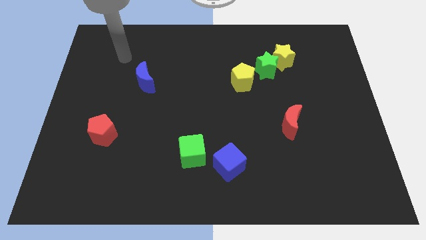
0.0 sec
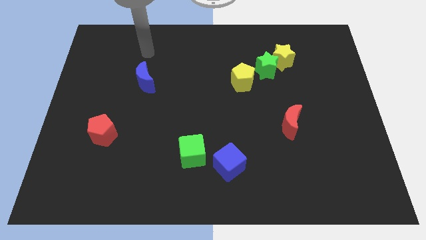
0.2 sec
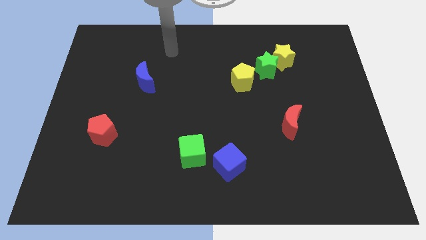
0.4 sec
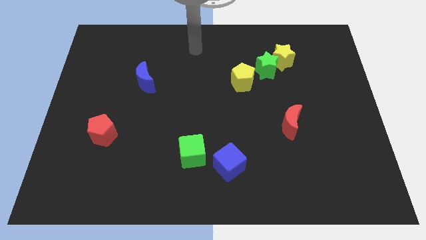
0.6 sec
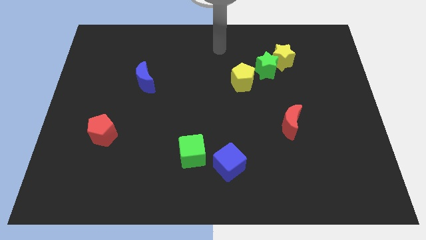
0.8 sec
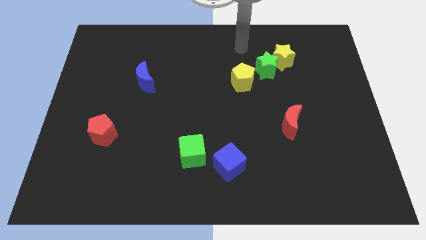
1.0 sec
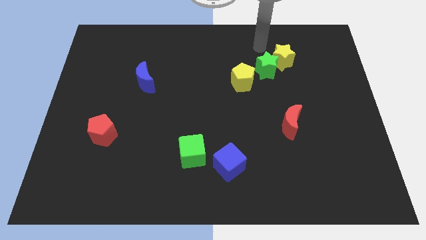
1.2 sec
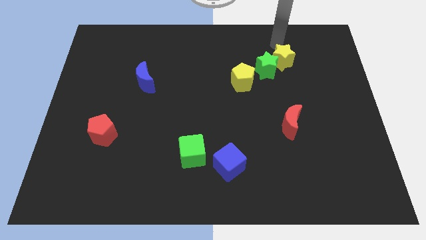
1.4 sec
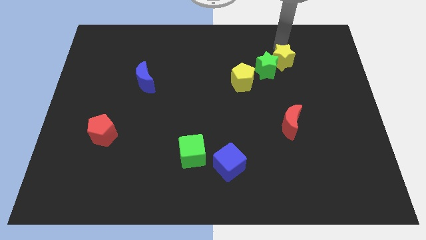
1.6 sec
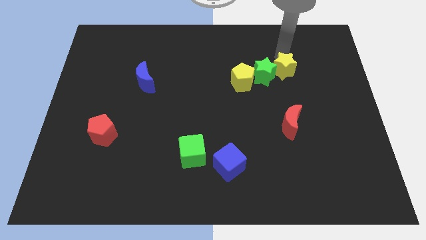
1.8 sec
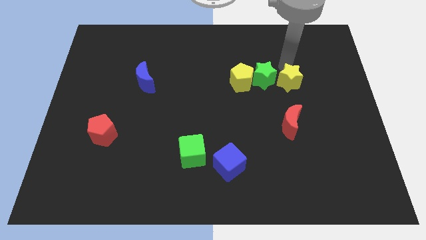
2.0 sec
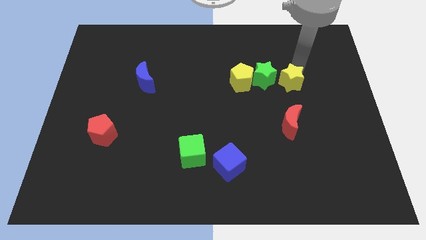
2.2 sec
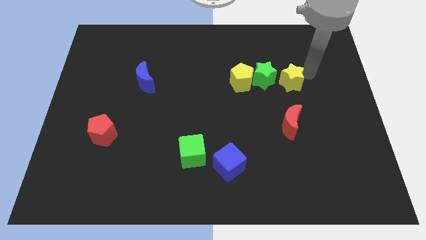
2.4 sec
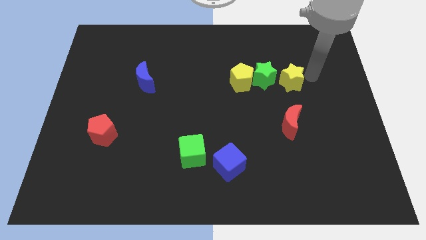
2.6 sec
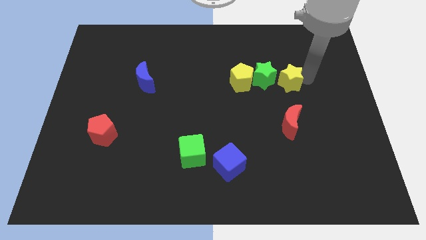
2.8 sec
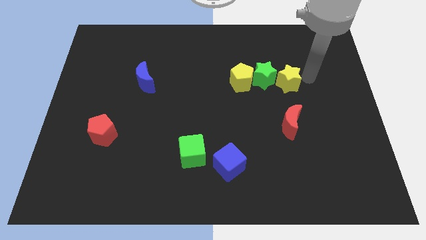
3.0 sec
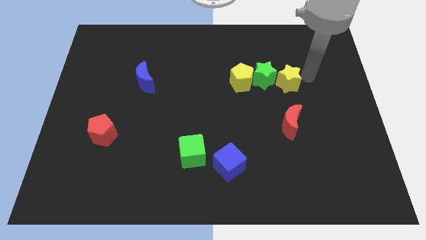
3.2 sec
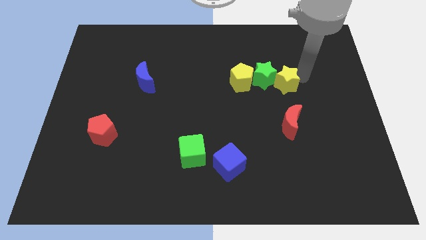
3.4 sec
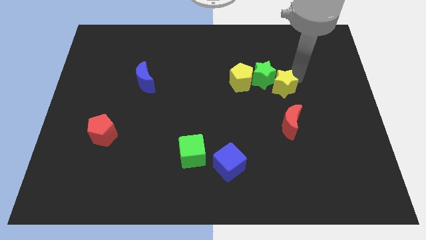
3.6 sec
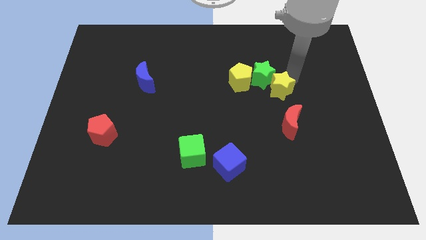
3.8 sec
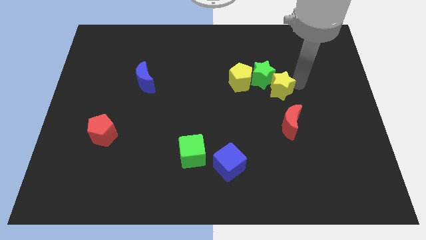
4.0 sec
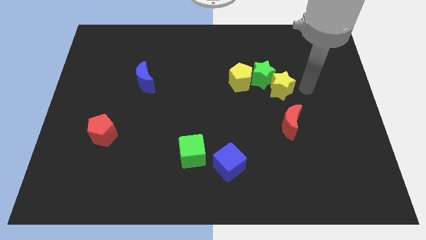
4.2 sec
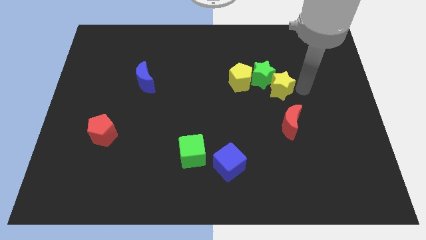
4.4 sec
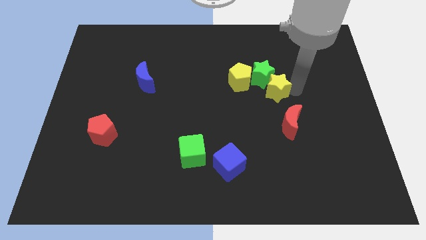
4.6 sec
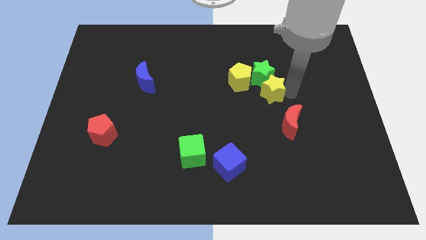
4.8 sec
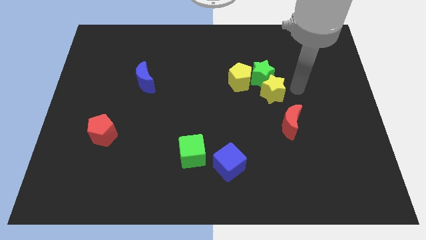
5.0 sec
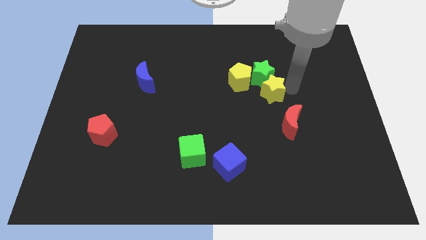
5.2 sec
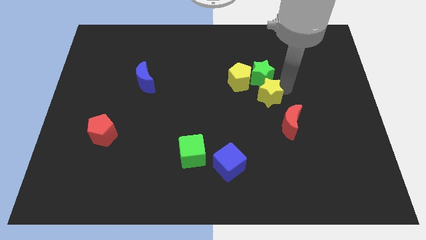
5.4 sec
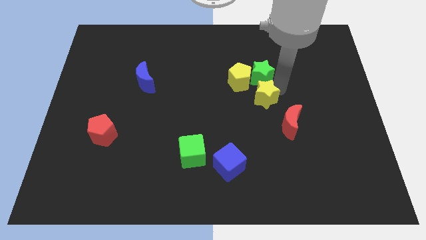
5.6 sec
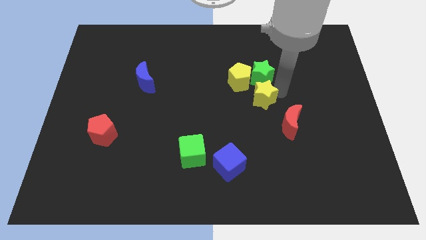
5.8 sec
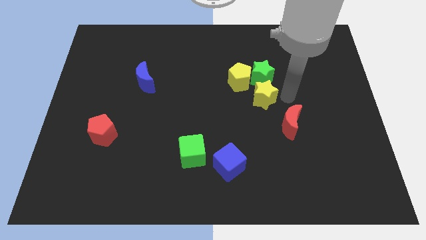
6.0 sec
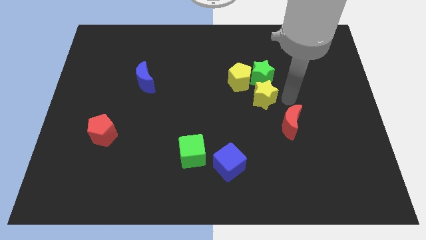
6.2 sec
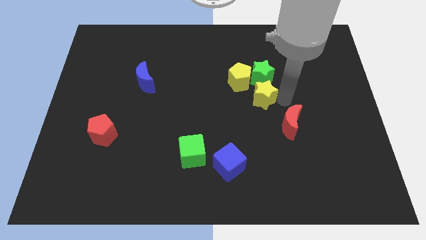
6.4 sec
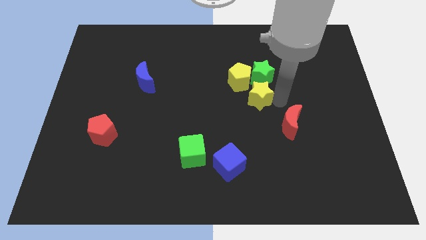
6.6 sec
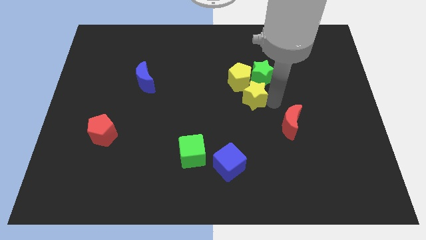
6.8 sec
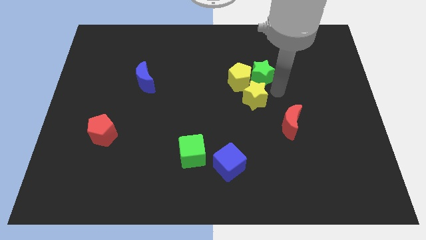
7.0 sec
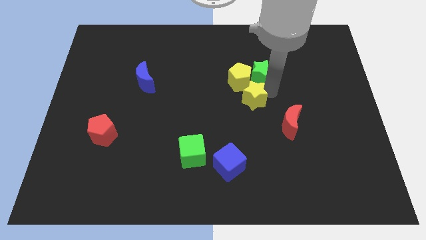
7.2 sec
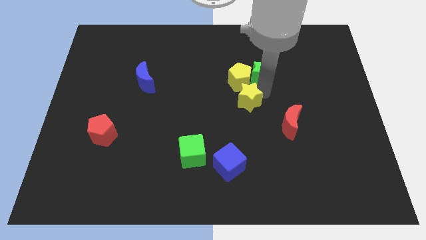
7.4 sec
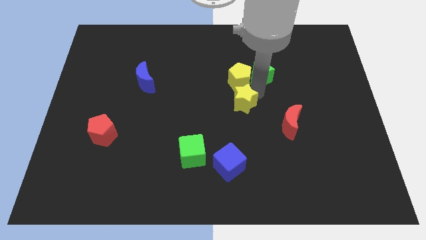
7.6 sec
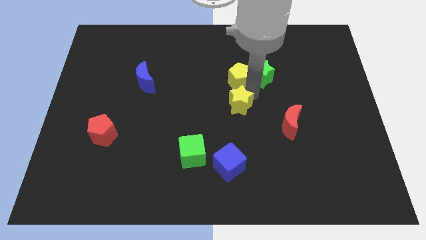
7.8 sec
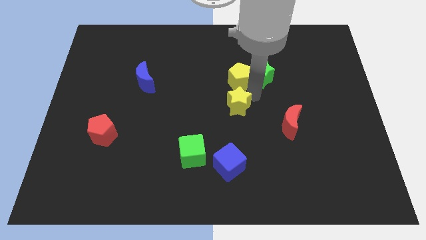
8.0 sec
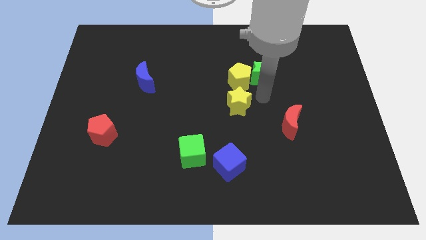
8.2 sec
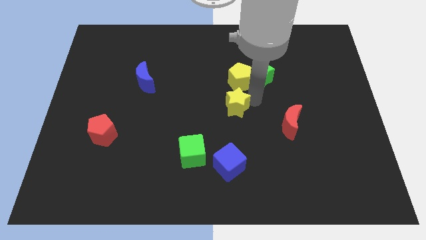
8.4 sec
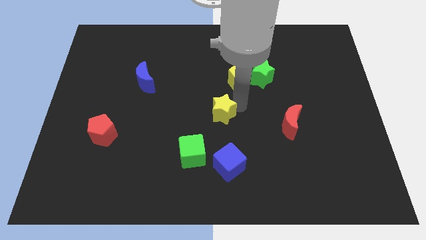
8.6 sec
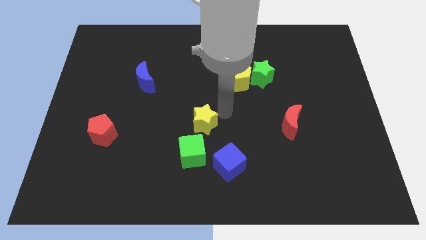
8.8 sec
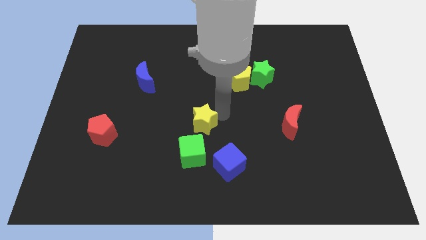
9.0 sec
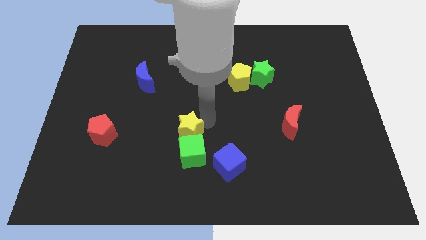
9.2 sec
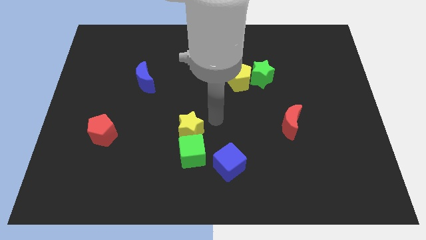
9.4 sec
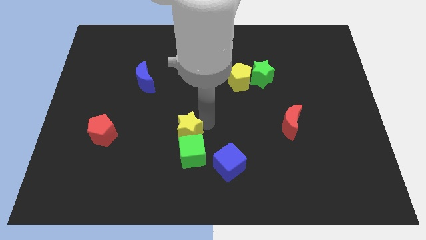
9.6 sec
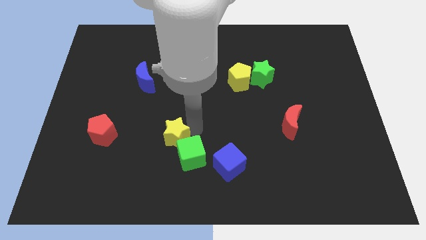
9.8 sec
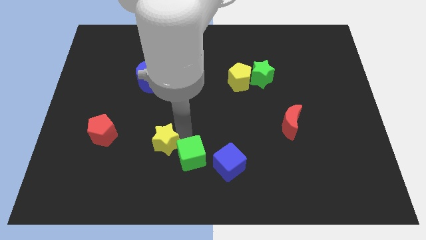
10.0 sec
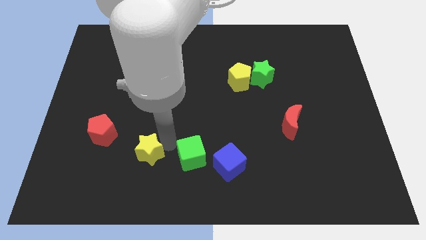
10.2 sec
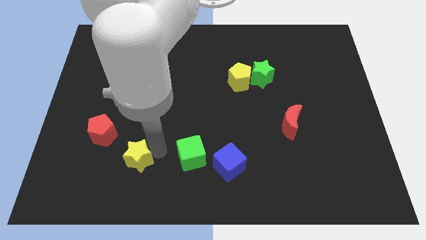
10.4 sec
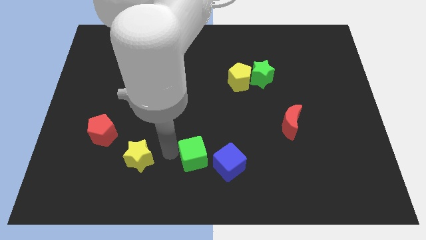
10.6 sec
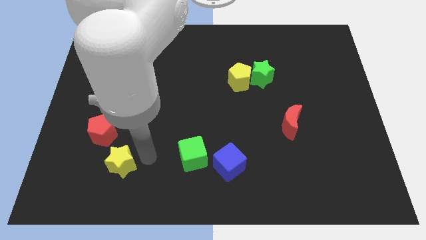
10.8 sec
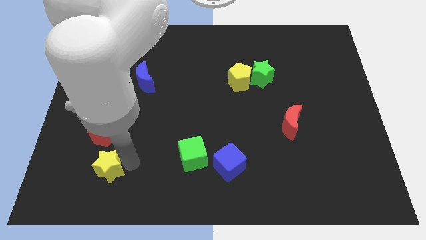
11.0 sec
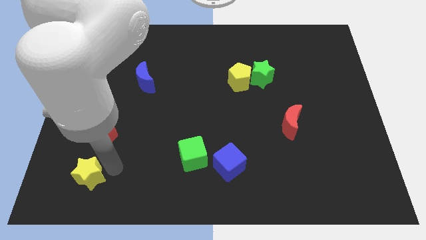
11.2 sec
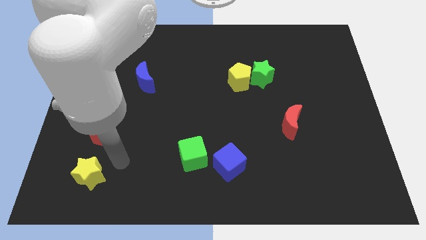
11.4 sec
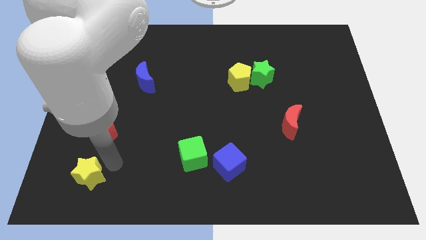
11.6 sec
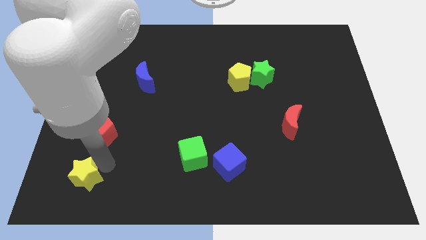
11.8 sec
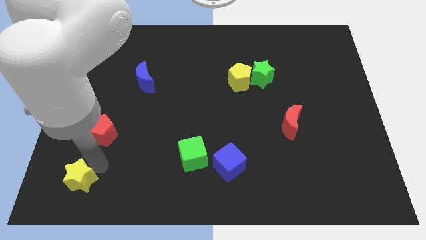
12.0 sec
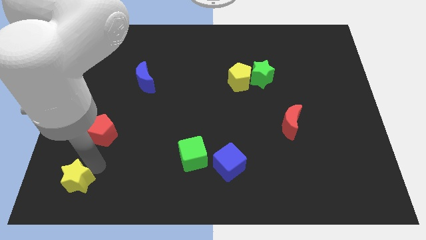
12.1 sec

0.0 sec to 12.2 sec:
move the yellow star to the bottom left corner
